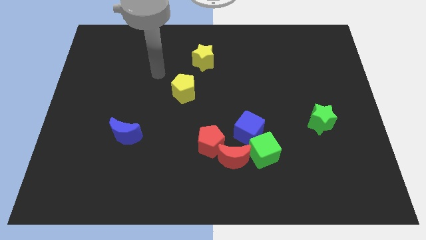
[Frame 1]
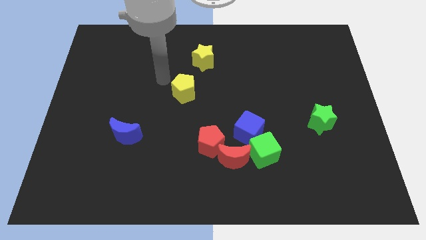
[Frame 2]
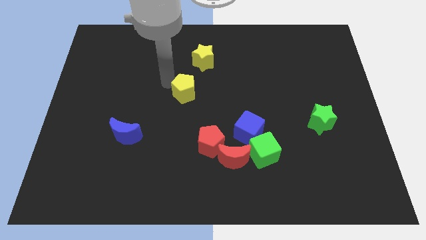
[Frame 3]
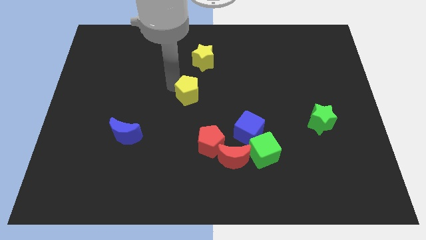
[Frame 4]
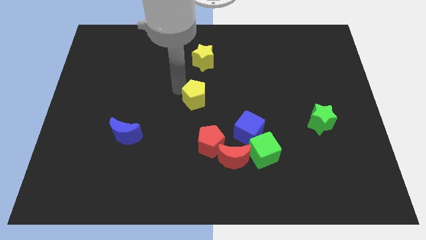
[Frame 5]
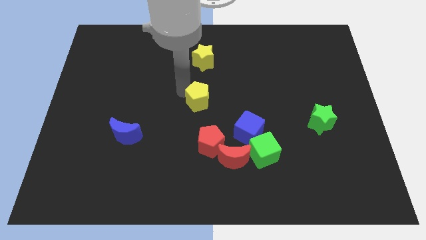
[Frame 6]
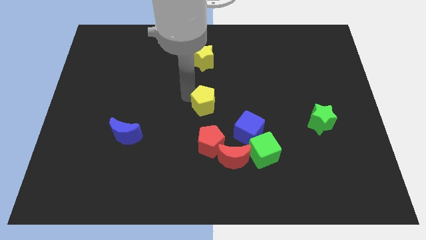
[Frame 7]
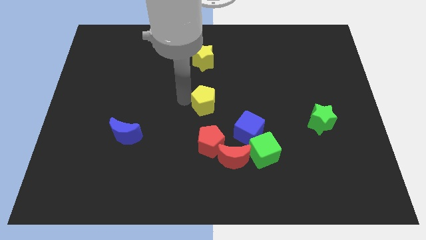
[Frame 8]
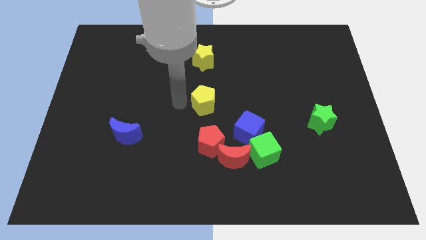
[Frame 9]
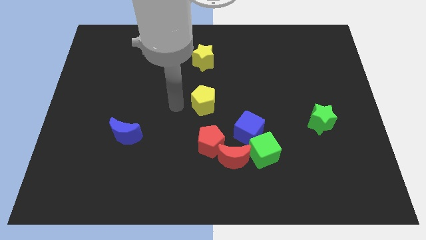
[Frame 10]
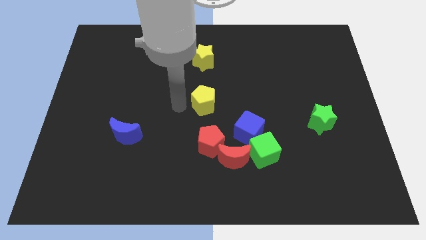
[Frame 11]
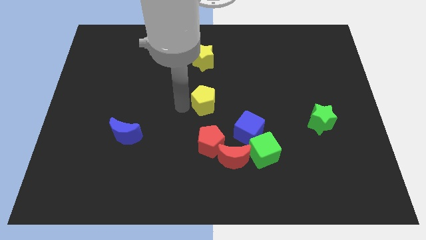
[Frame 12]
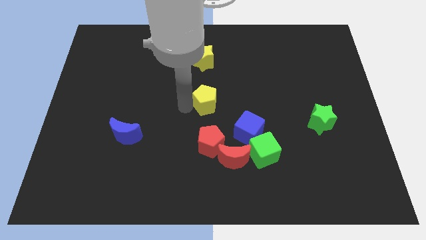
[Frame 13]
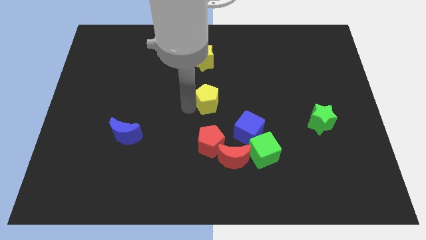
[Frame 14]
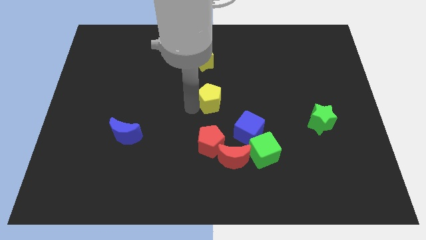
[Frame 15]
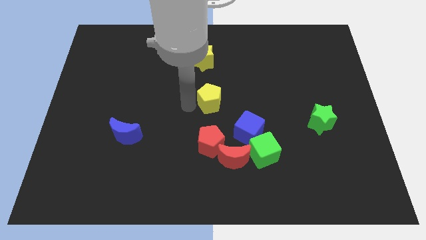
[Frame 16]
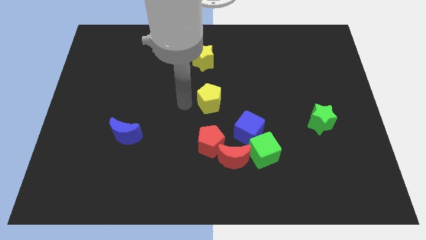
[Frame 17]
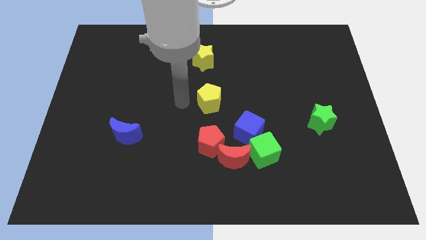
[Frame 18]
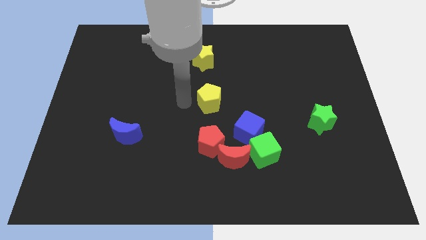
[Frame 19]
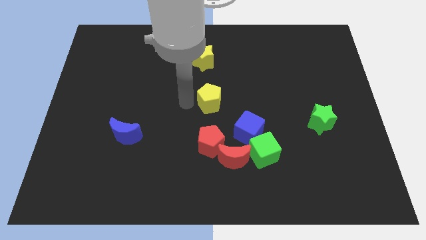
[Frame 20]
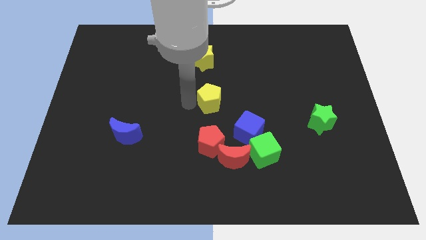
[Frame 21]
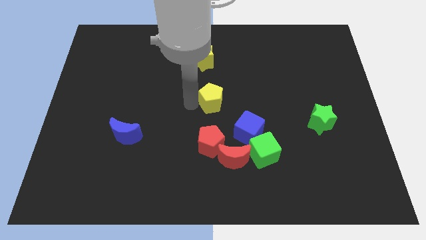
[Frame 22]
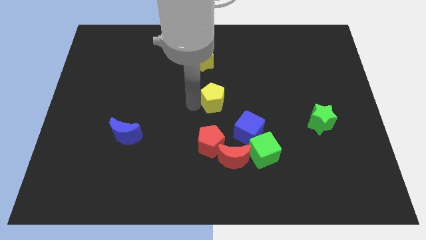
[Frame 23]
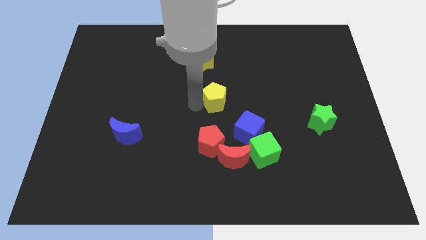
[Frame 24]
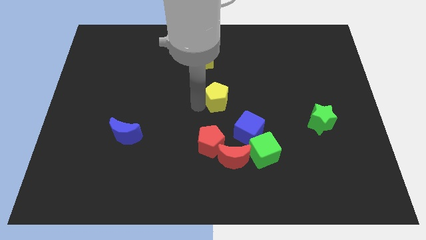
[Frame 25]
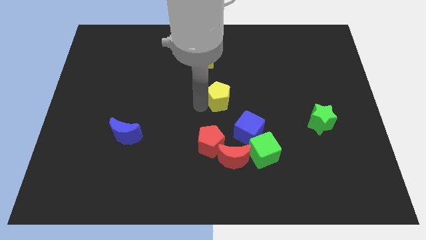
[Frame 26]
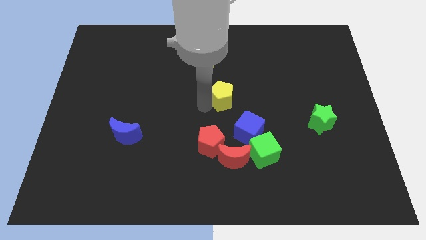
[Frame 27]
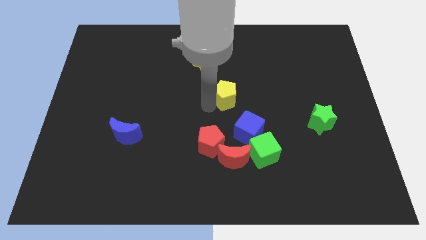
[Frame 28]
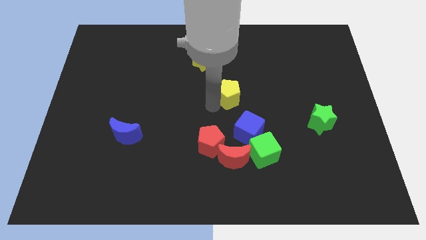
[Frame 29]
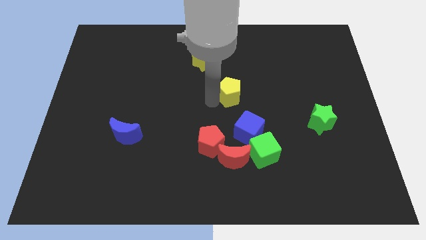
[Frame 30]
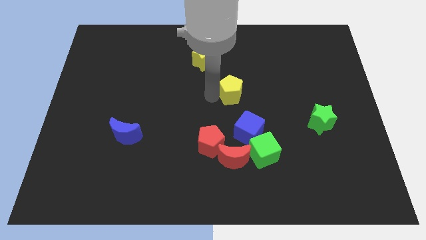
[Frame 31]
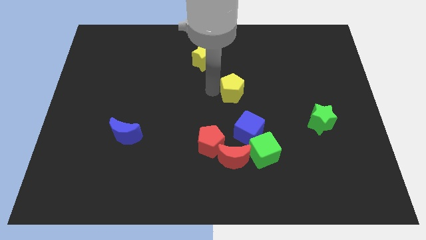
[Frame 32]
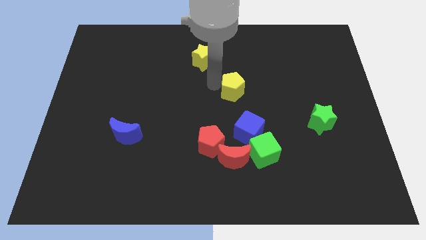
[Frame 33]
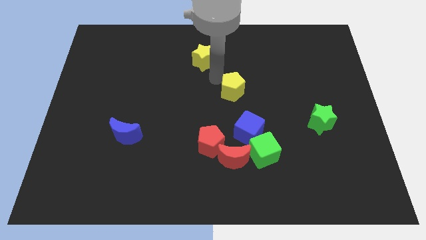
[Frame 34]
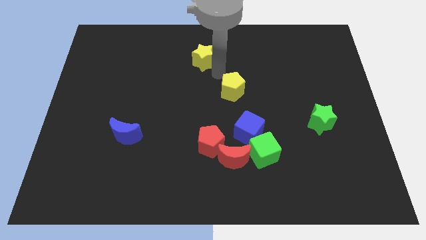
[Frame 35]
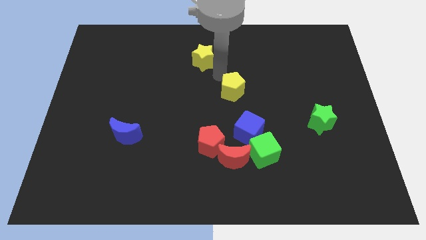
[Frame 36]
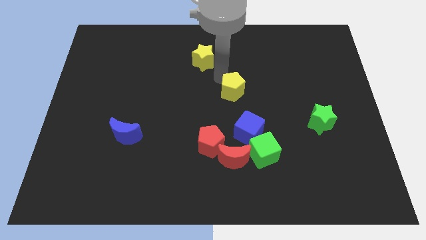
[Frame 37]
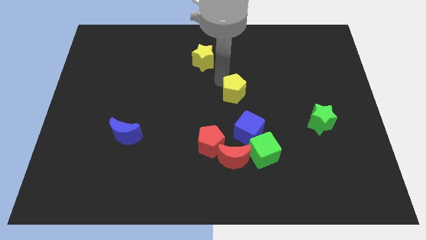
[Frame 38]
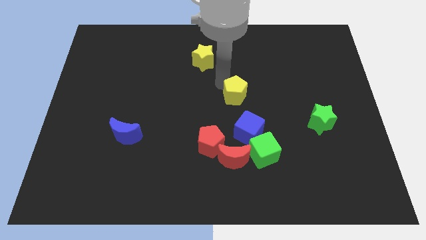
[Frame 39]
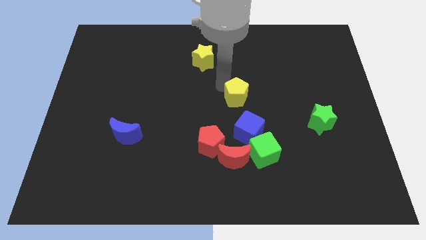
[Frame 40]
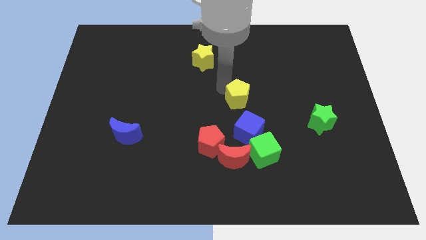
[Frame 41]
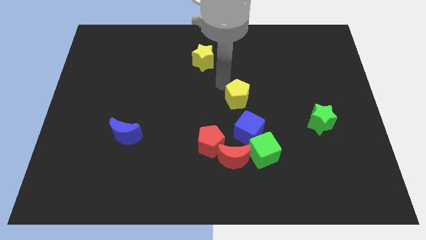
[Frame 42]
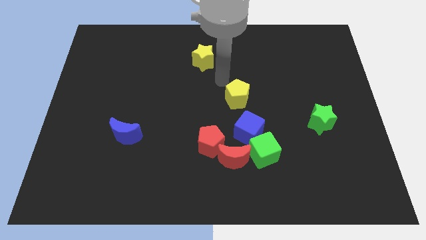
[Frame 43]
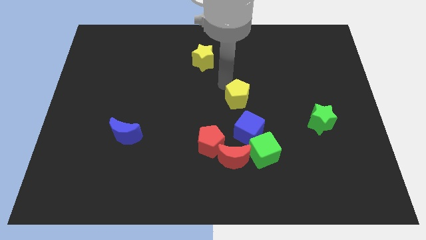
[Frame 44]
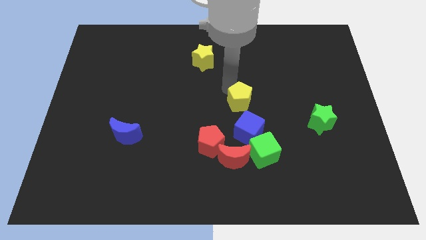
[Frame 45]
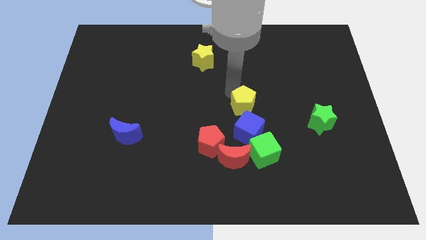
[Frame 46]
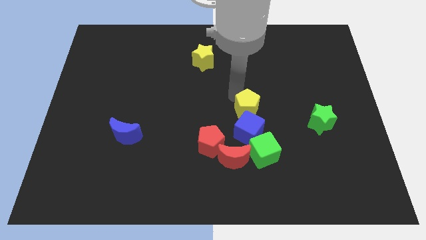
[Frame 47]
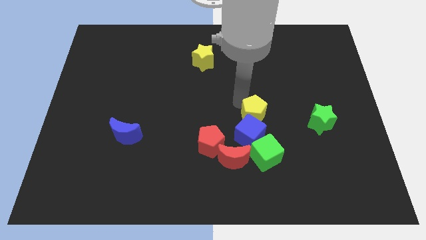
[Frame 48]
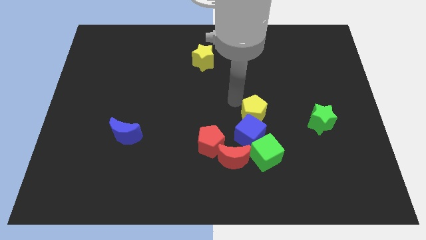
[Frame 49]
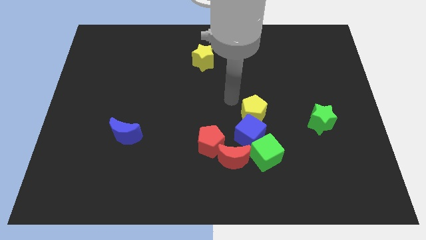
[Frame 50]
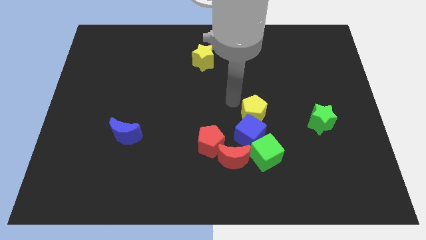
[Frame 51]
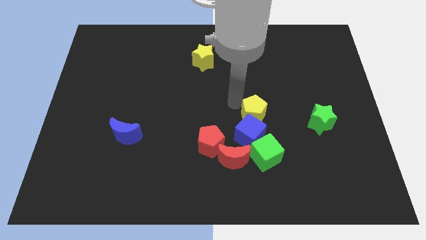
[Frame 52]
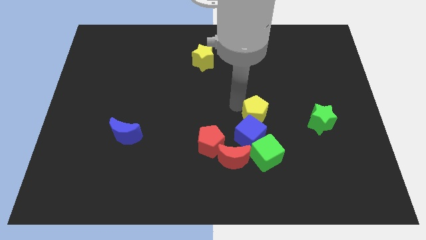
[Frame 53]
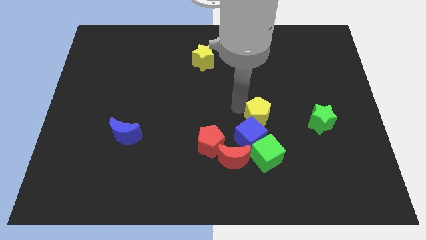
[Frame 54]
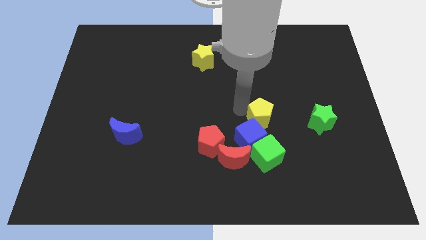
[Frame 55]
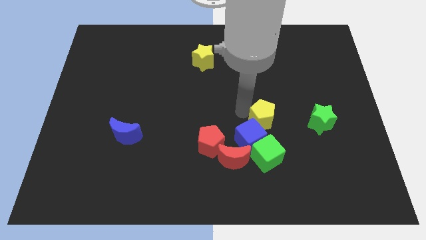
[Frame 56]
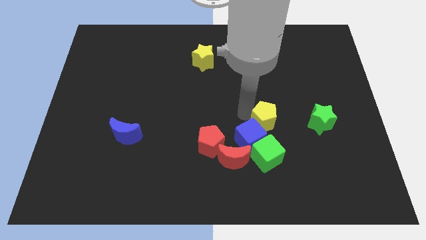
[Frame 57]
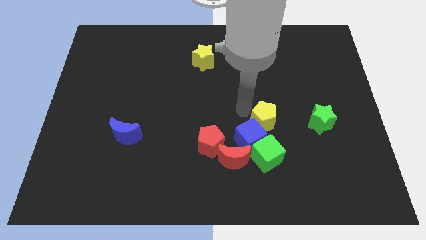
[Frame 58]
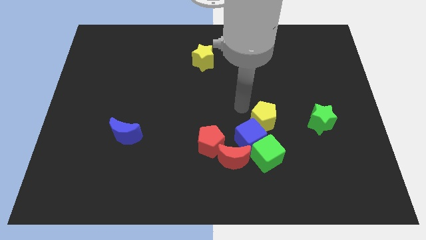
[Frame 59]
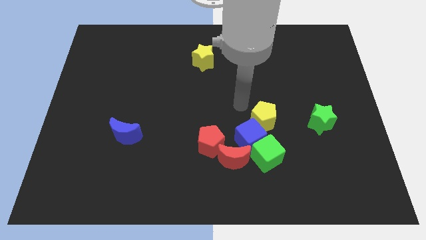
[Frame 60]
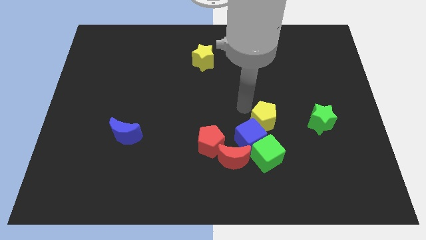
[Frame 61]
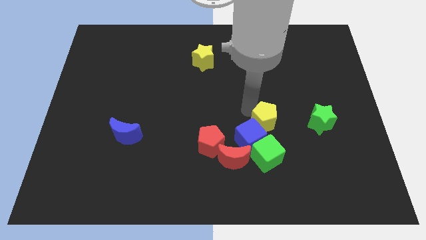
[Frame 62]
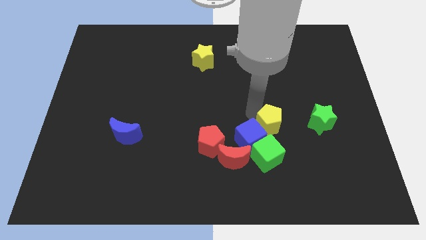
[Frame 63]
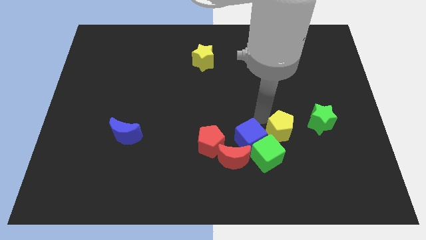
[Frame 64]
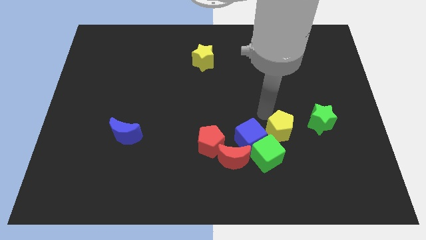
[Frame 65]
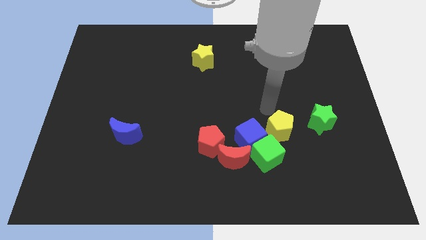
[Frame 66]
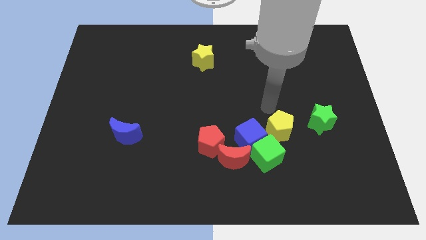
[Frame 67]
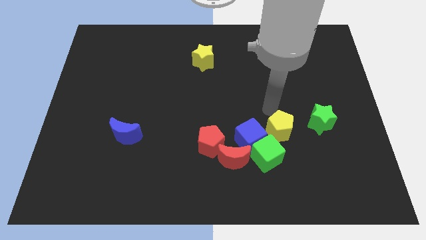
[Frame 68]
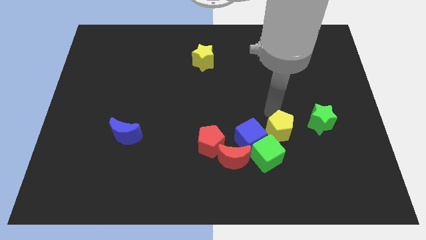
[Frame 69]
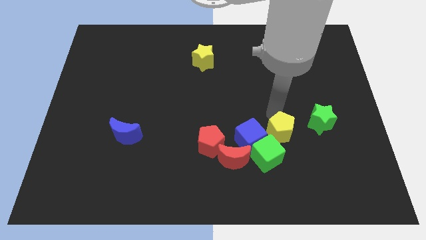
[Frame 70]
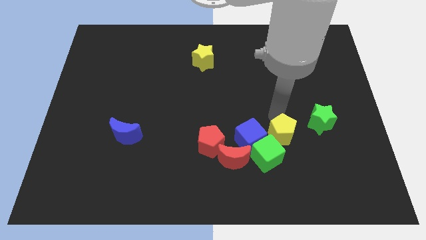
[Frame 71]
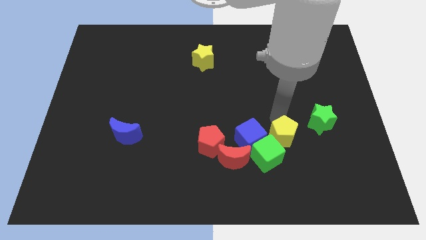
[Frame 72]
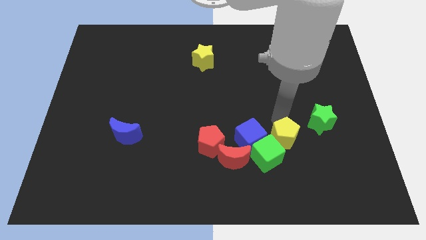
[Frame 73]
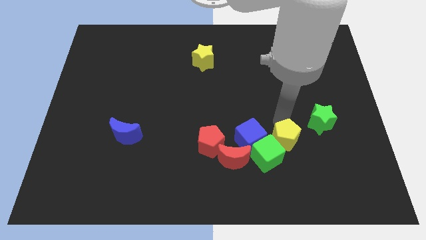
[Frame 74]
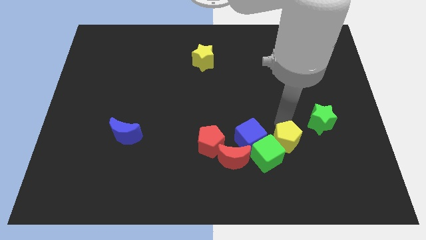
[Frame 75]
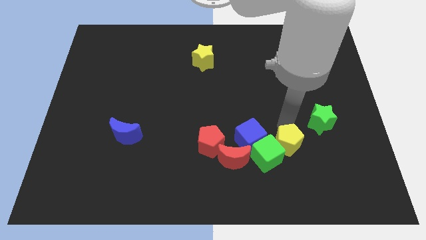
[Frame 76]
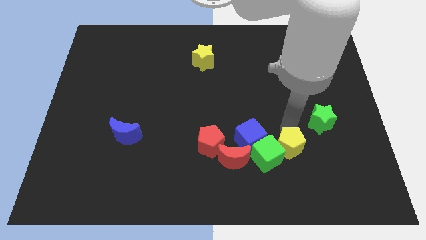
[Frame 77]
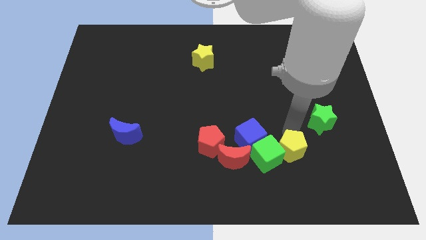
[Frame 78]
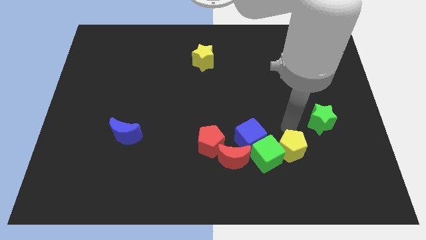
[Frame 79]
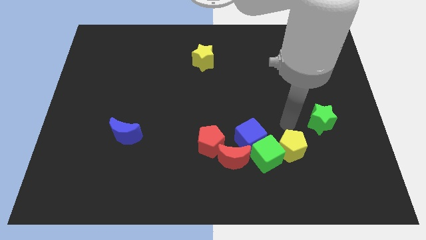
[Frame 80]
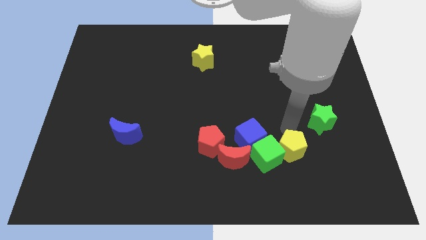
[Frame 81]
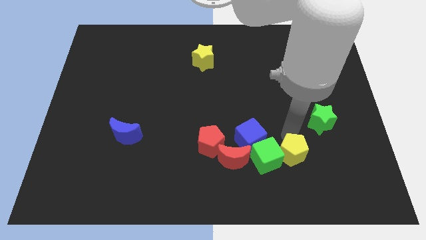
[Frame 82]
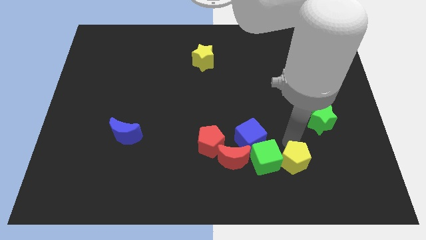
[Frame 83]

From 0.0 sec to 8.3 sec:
slide the yellow pentagon diagonally down and to the right of the green cube
